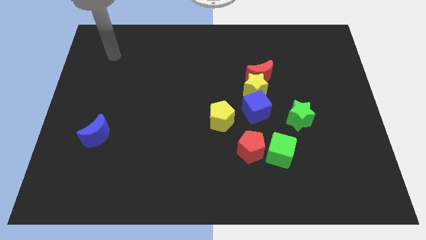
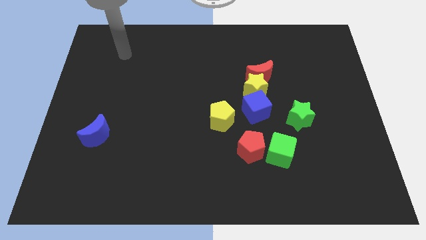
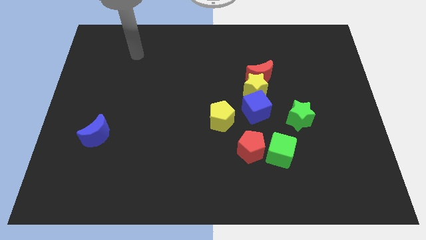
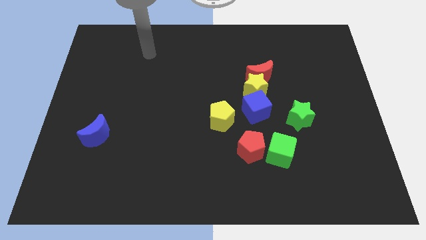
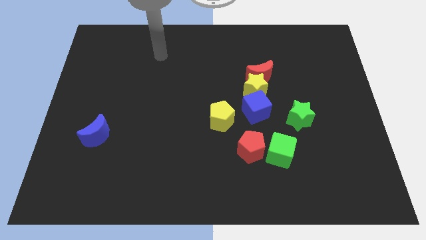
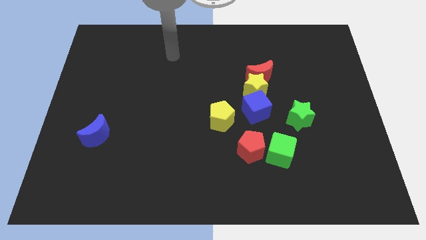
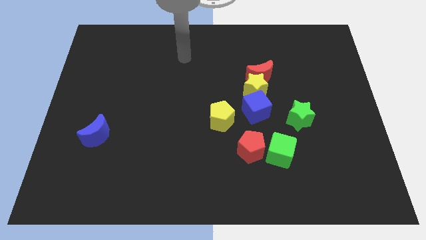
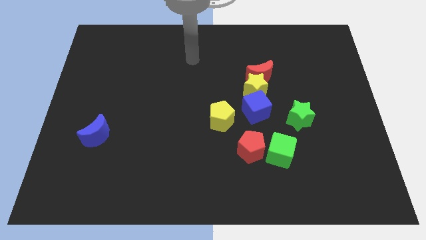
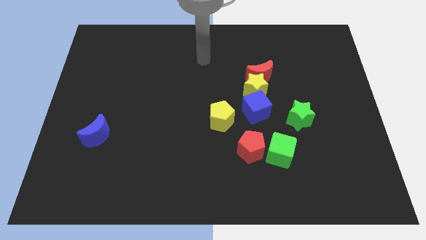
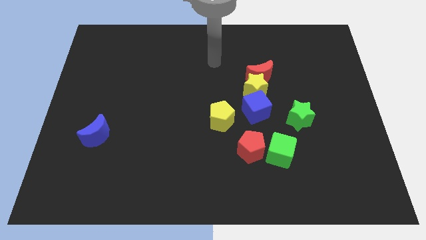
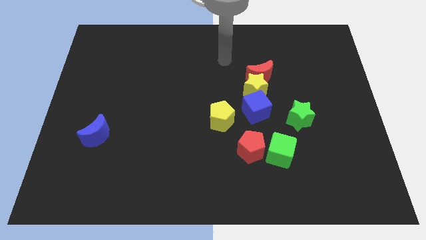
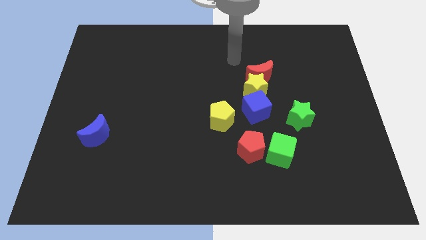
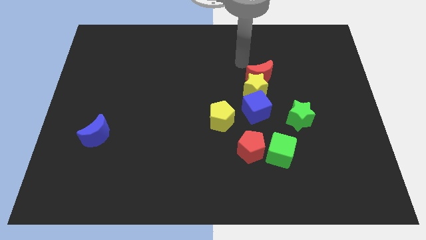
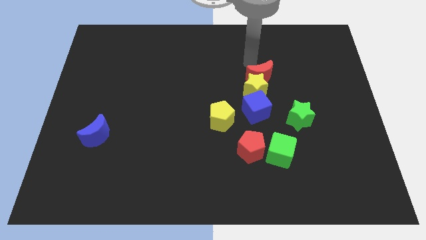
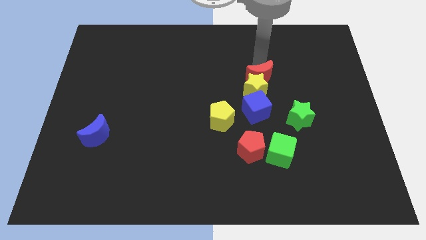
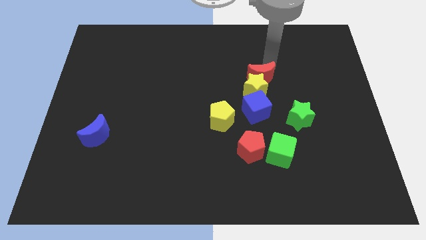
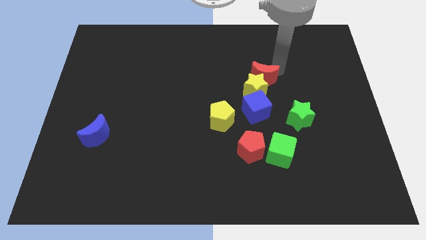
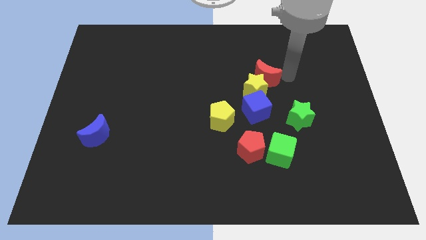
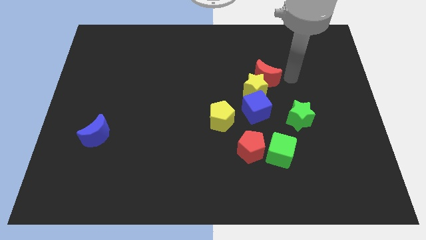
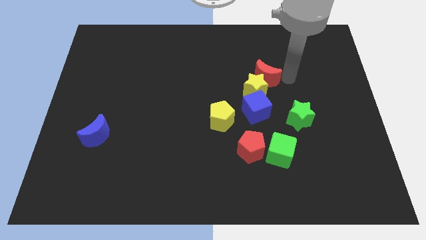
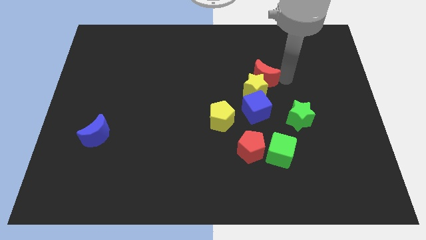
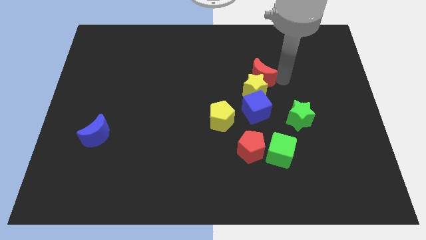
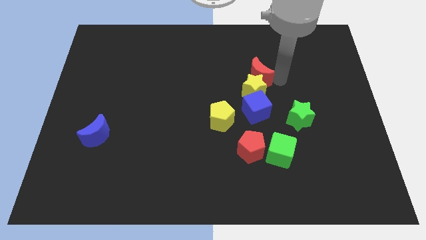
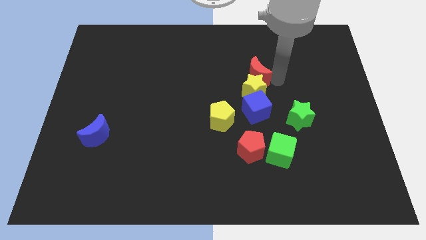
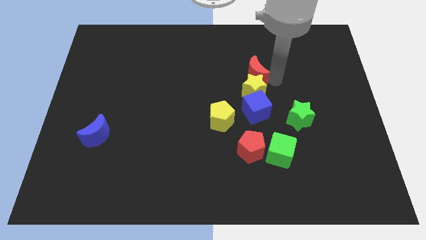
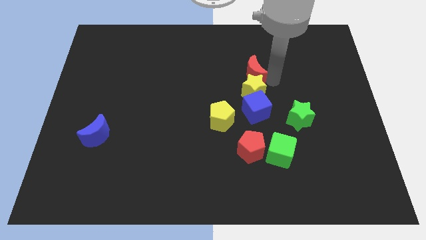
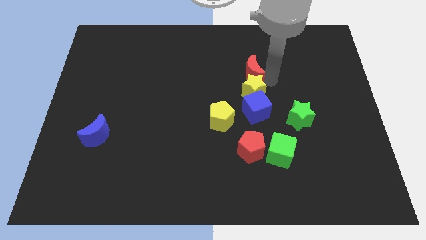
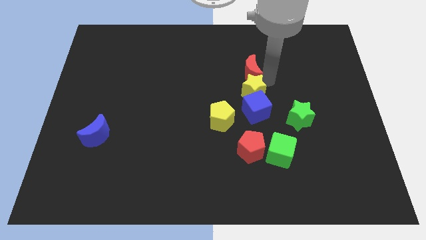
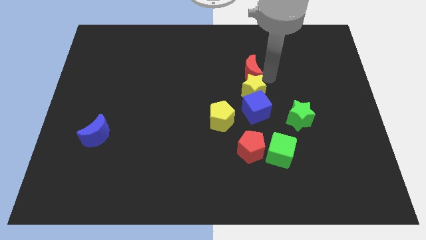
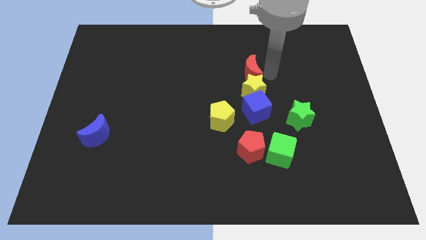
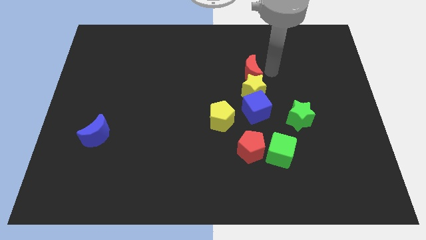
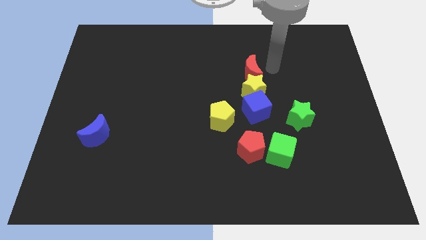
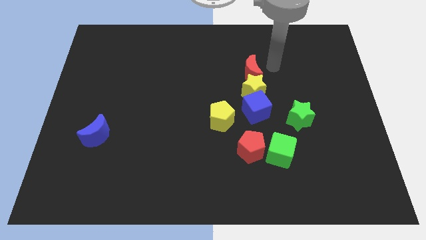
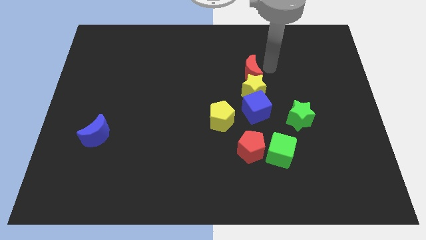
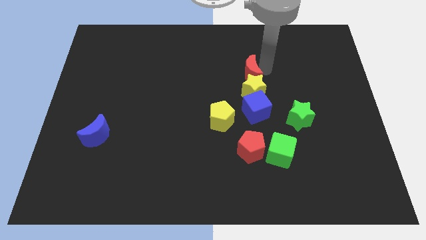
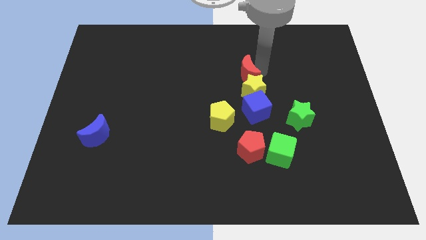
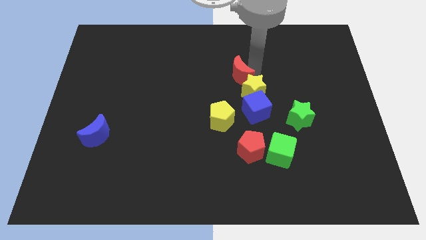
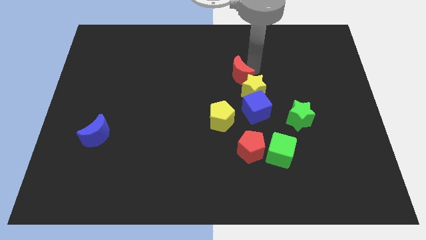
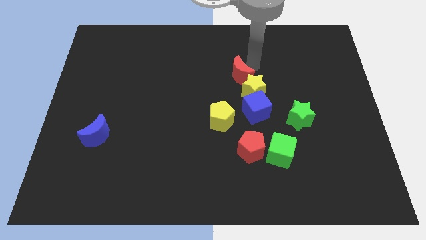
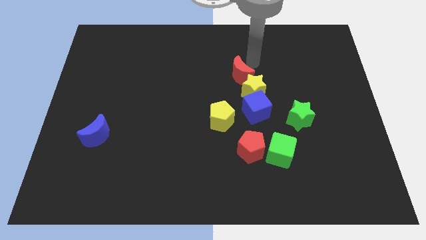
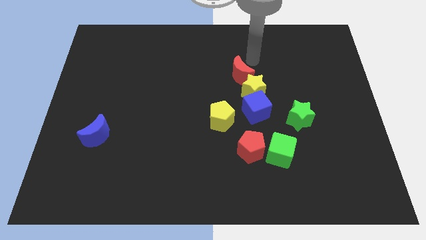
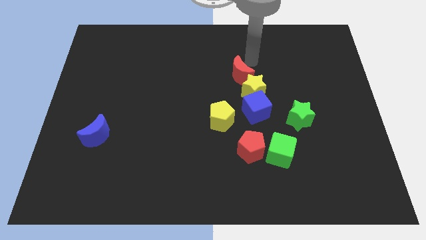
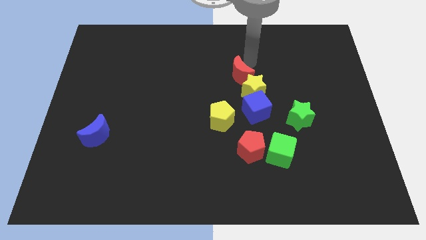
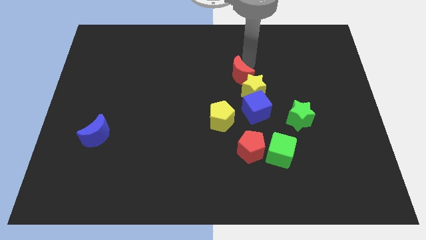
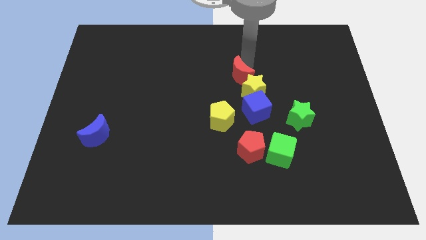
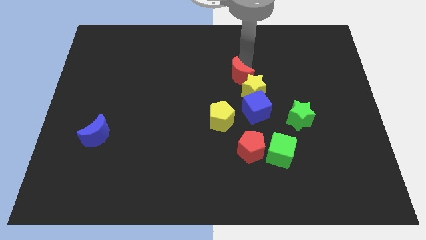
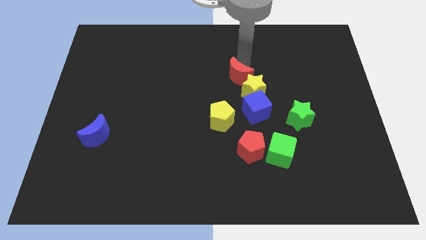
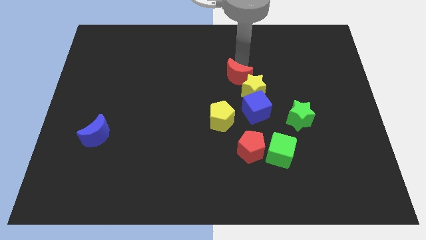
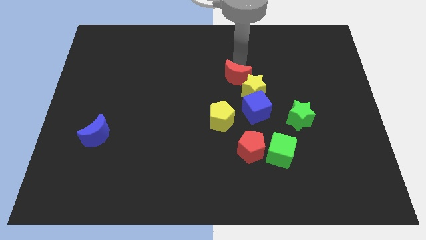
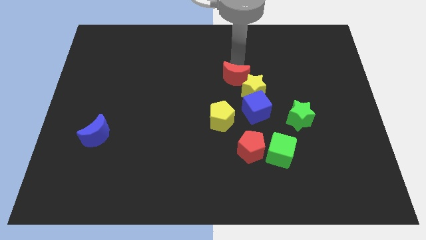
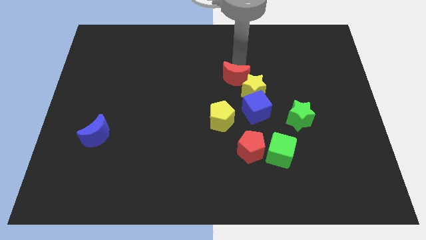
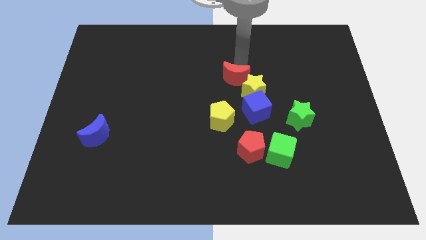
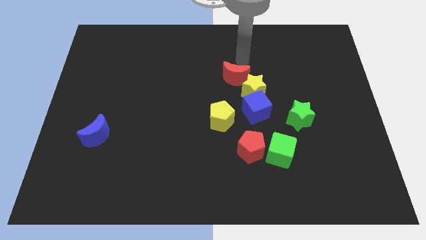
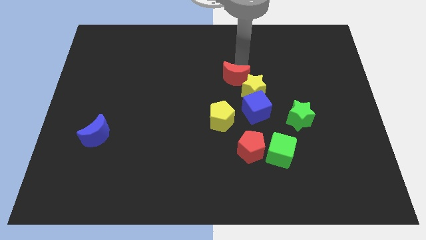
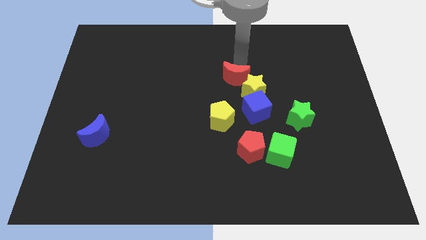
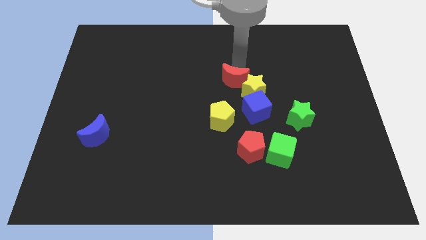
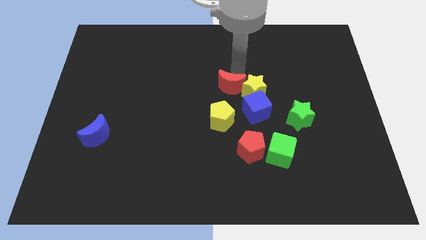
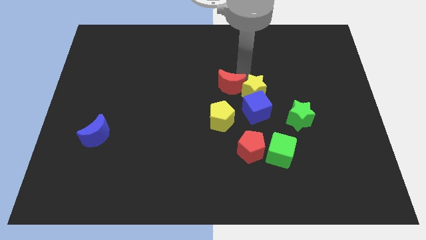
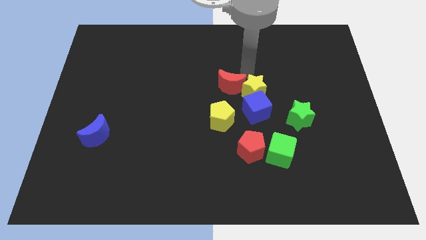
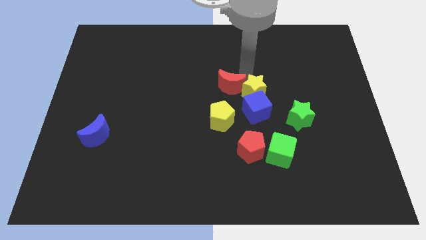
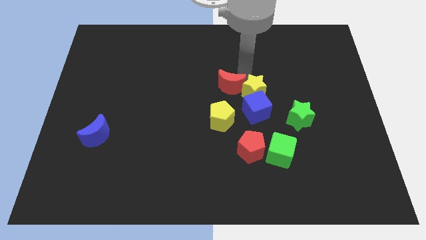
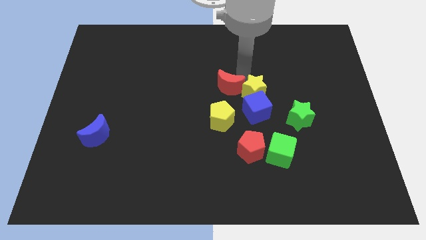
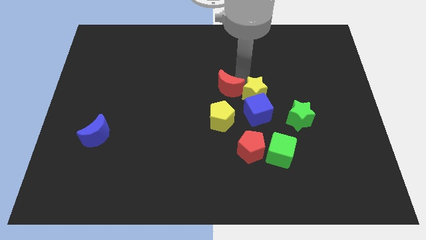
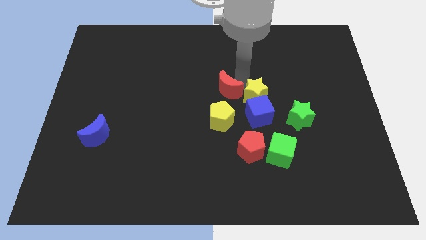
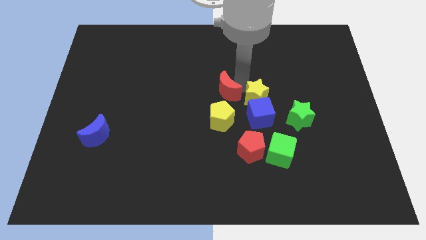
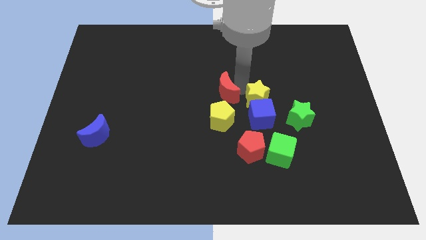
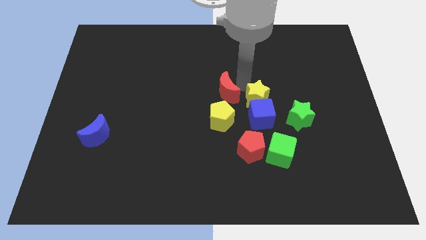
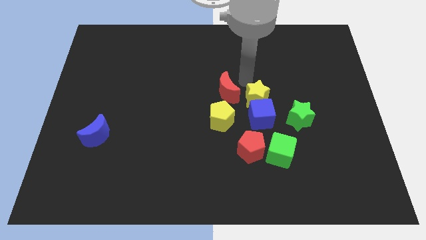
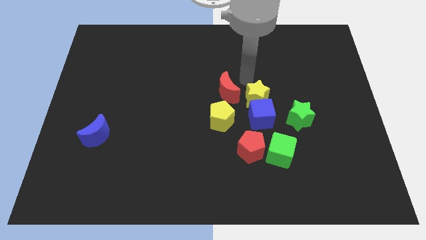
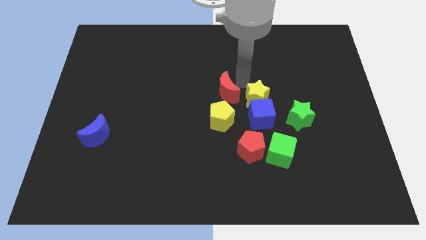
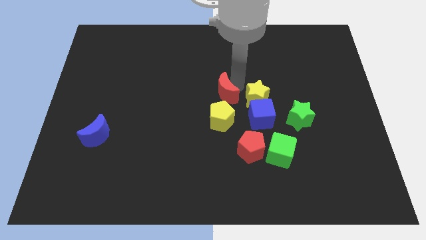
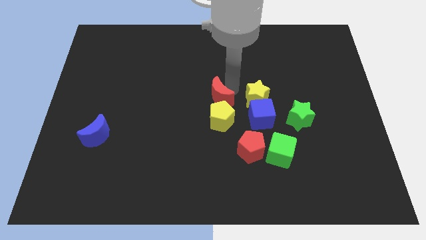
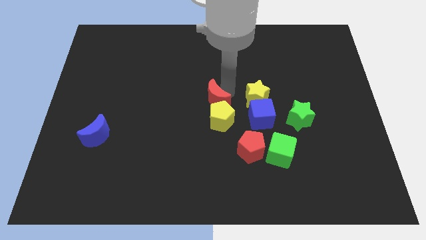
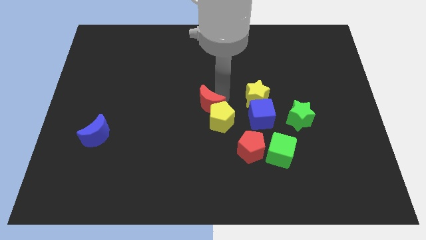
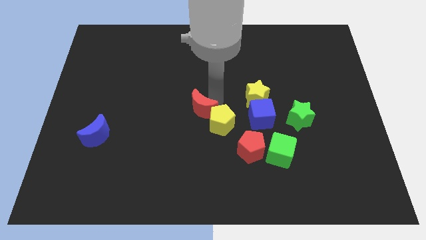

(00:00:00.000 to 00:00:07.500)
move the red moon to the left side of the yellow pentagon

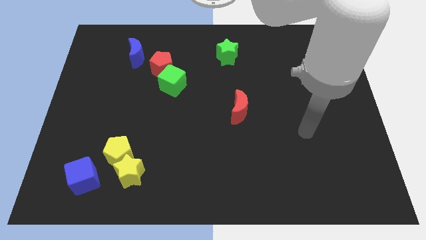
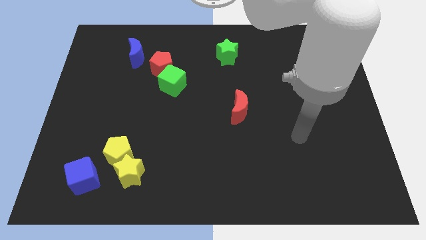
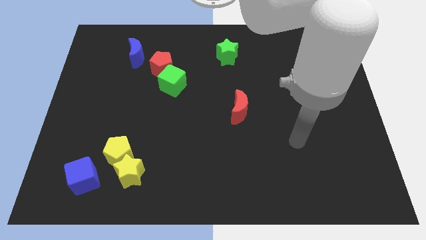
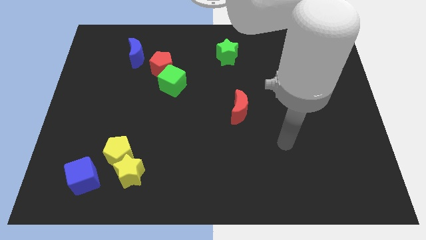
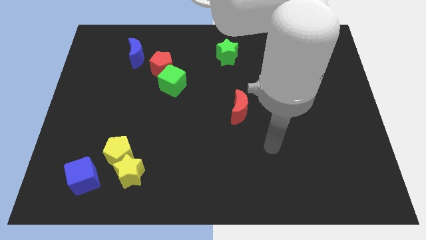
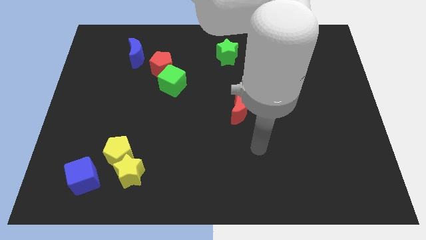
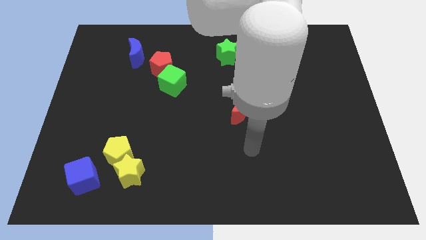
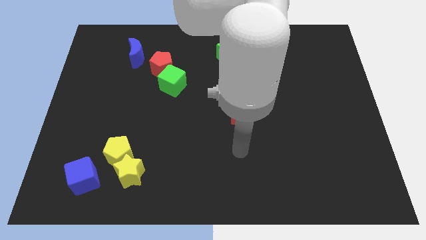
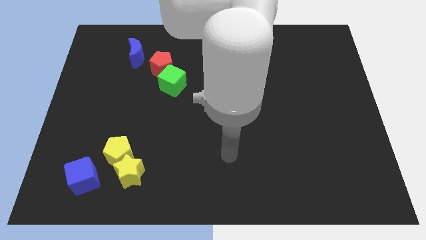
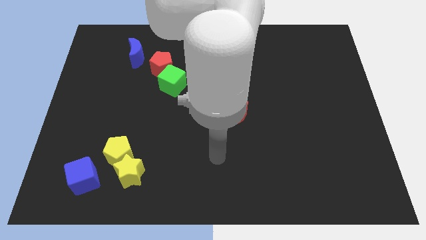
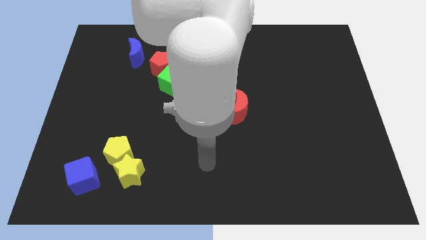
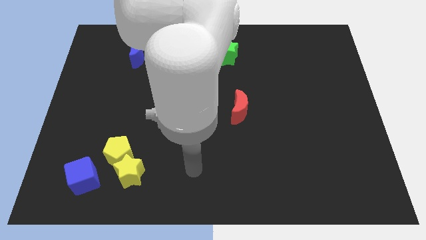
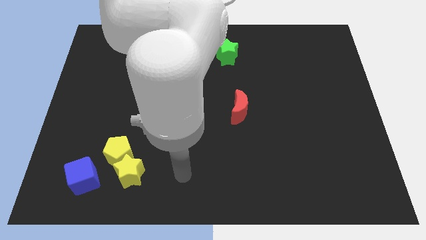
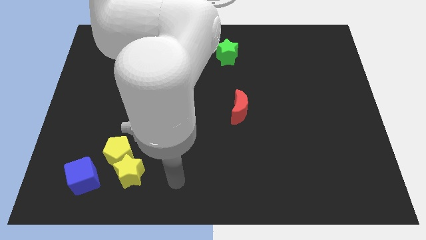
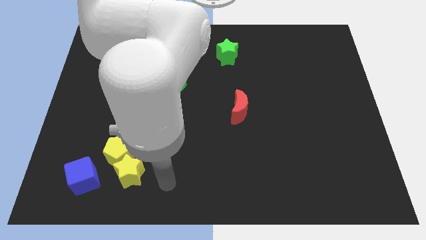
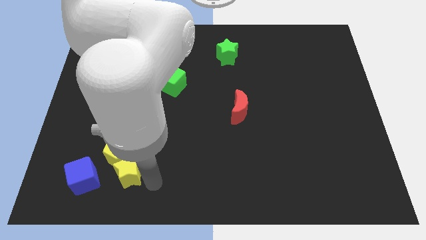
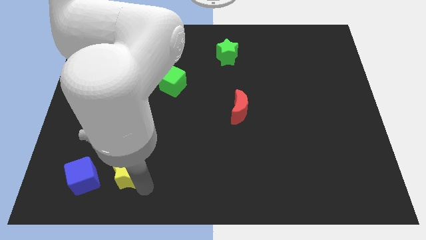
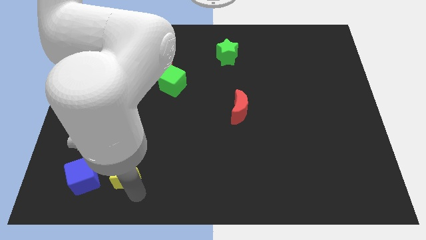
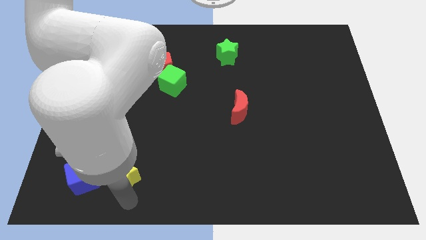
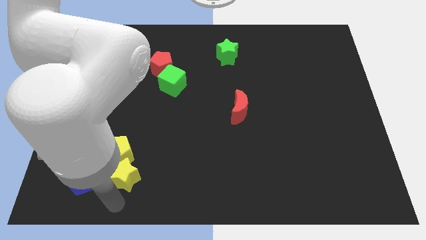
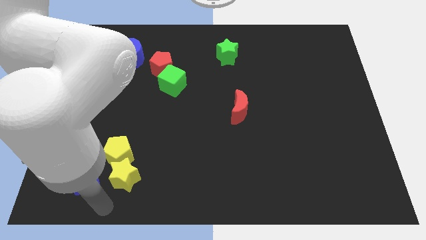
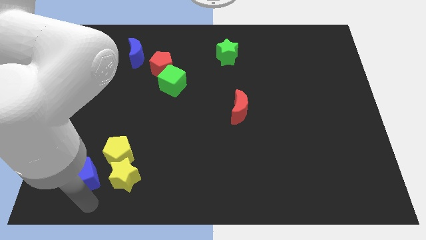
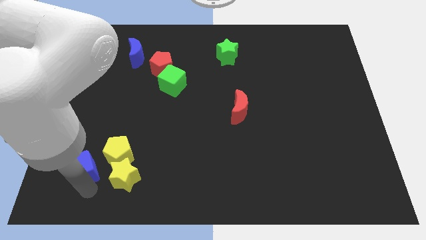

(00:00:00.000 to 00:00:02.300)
push the yellow pentagon right of the blue cube
